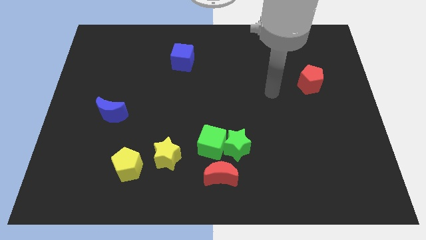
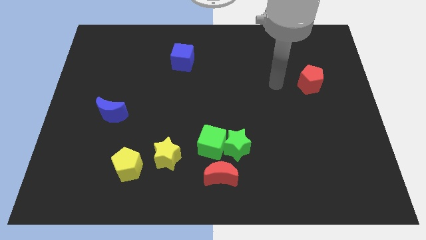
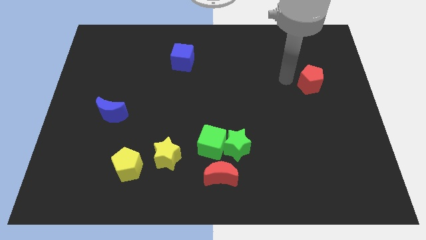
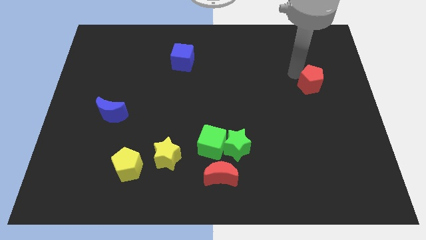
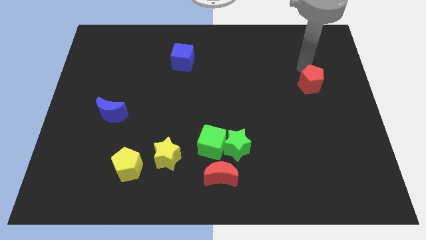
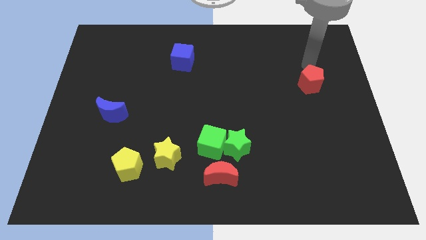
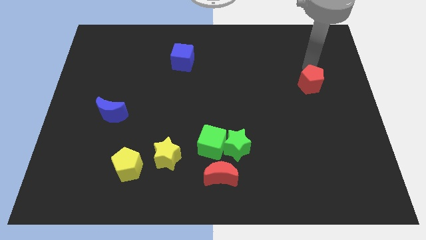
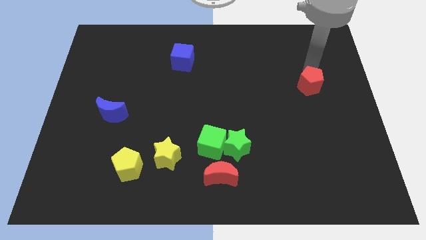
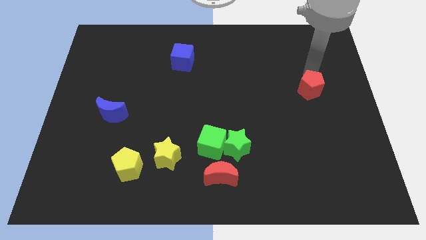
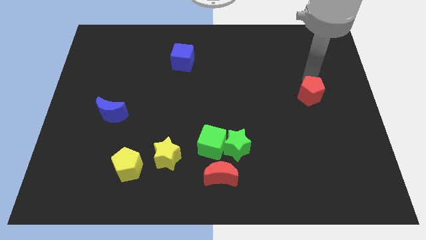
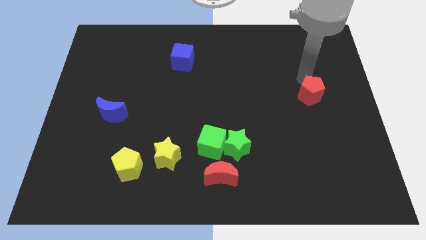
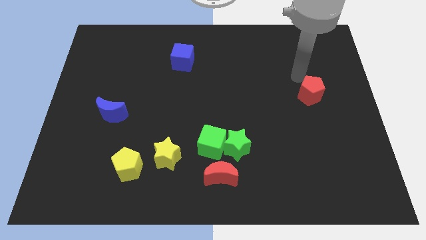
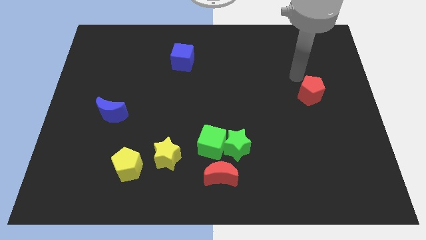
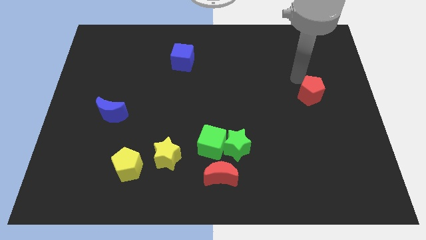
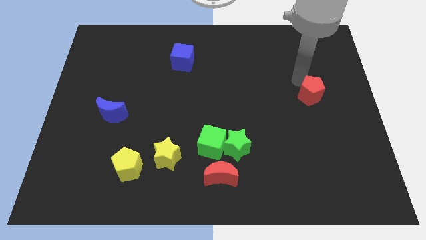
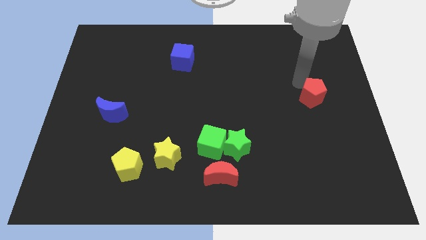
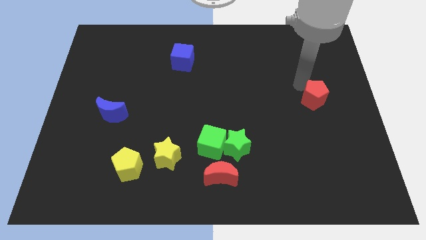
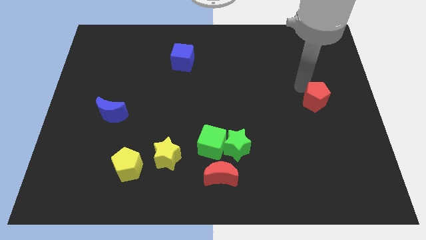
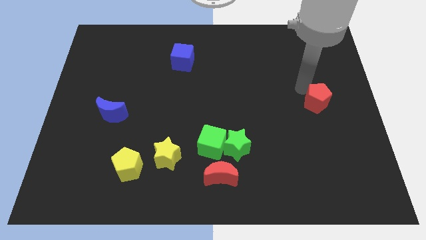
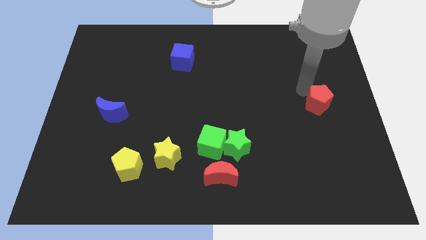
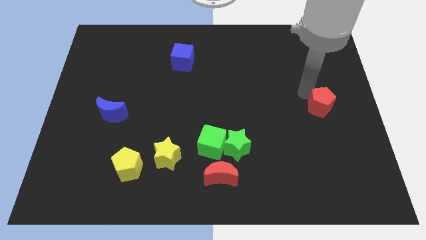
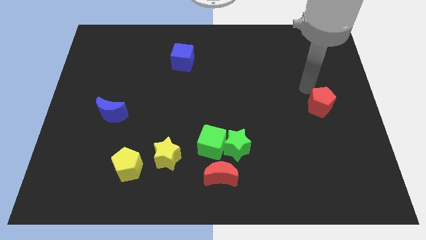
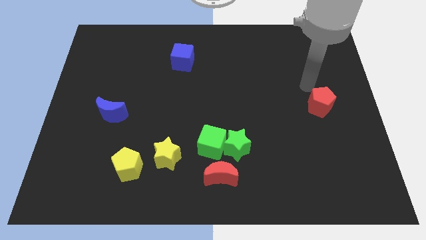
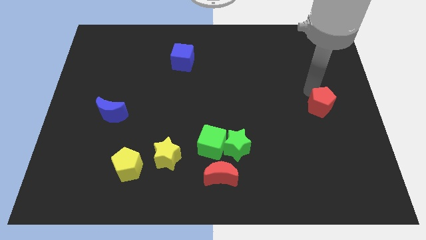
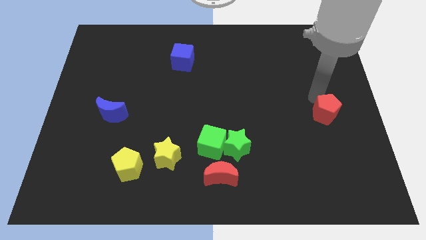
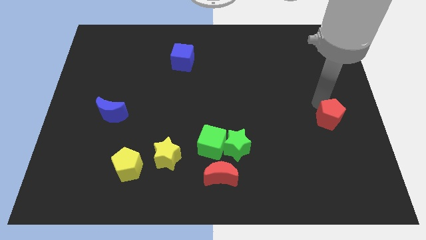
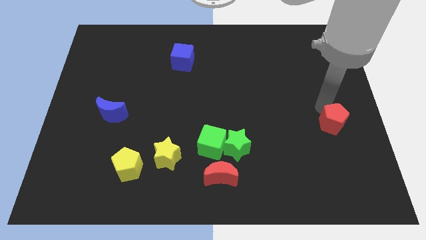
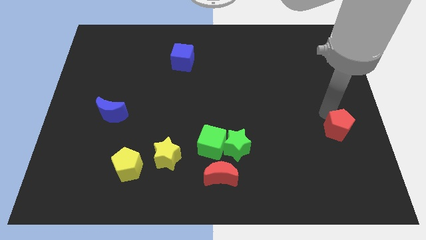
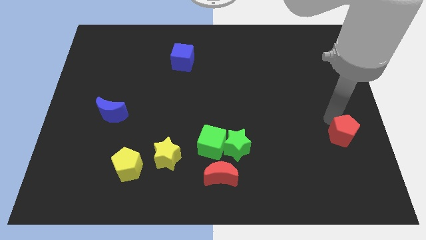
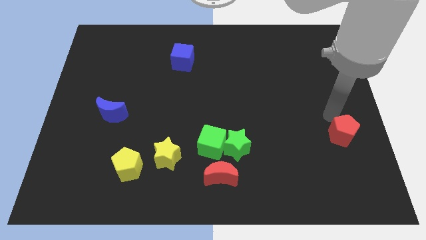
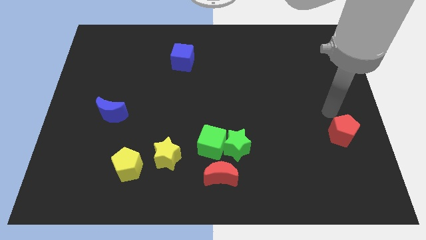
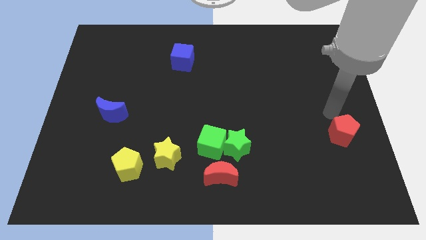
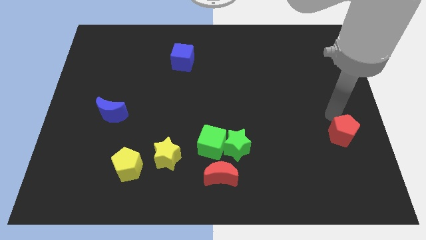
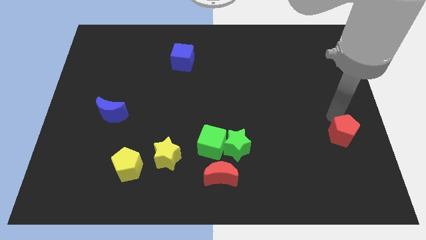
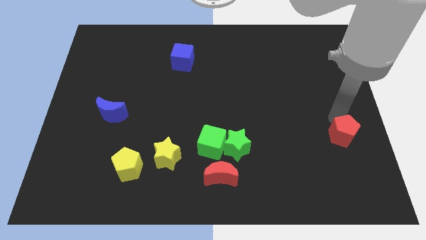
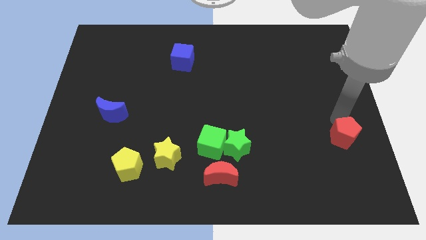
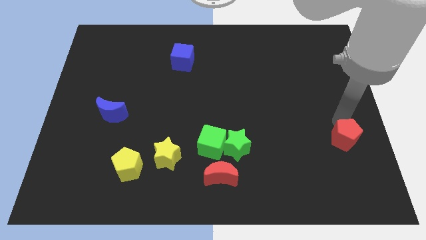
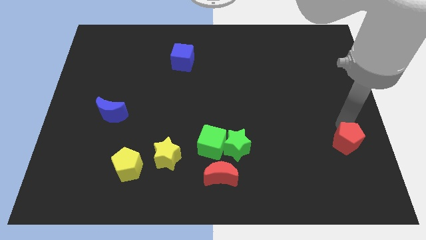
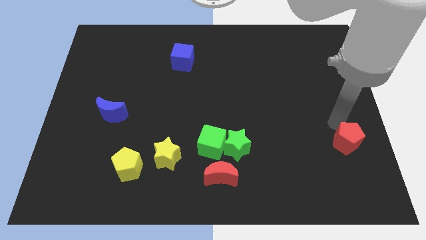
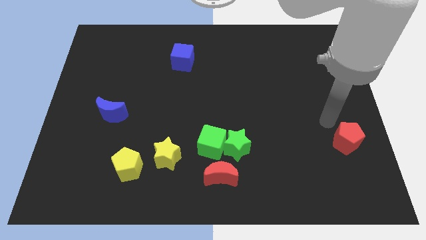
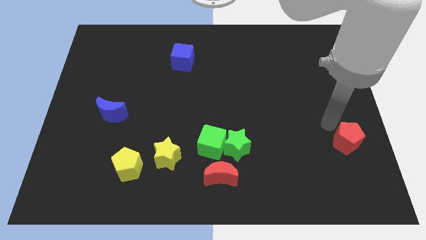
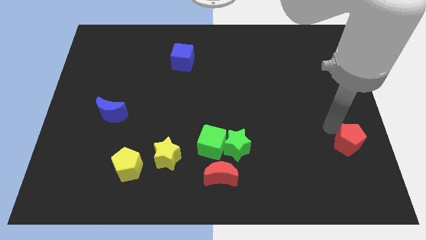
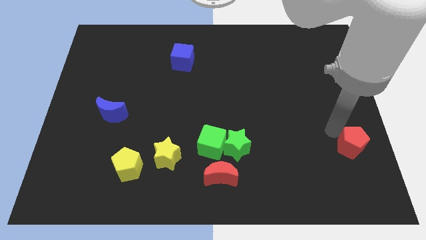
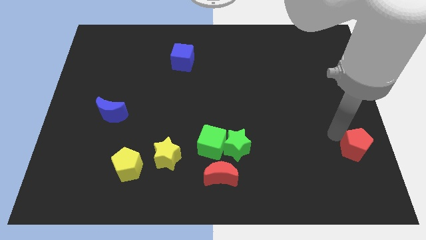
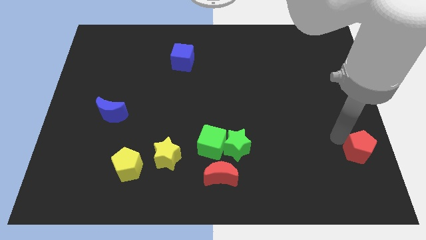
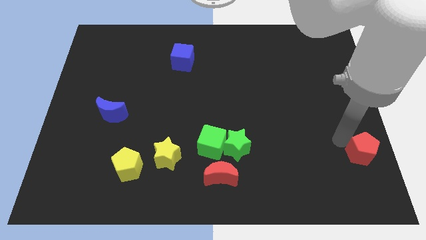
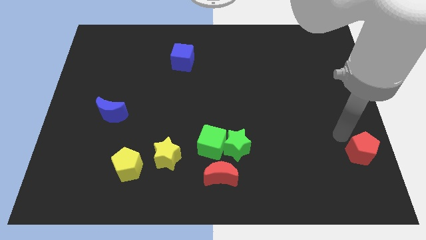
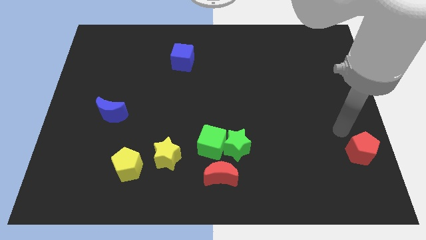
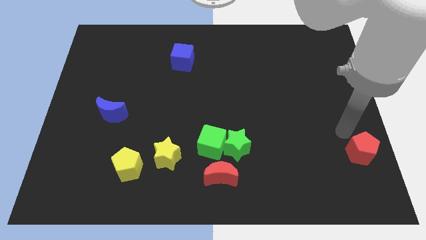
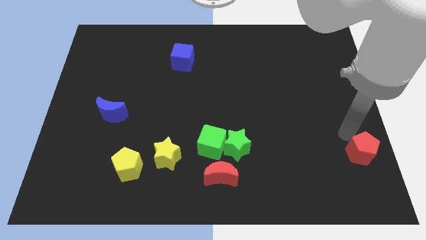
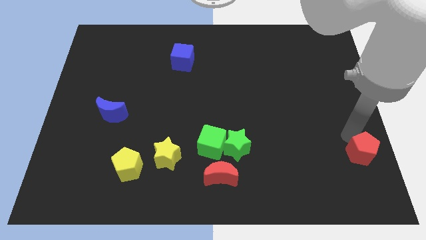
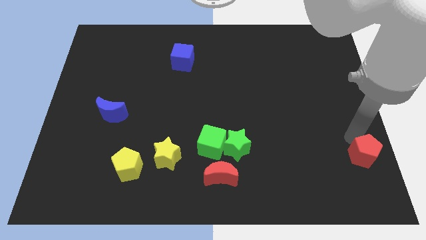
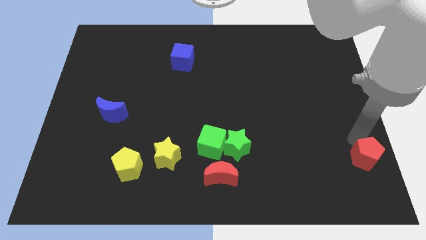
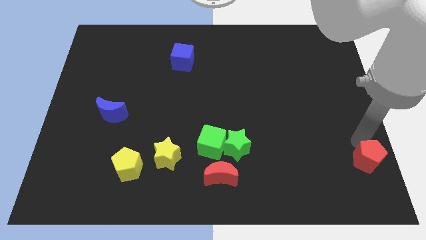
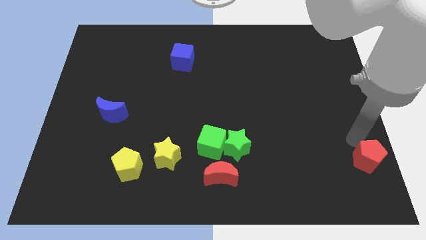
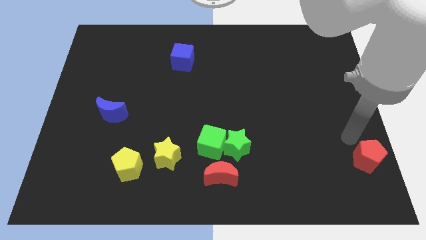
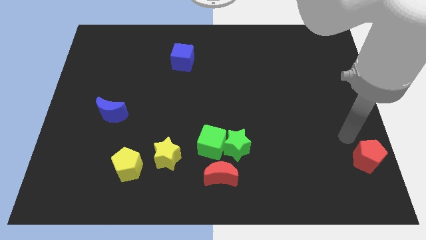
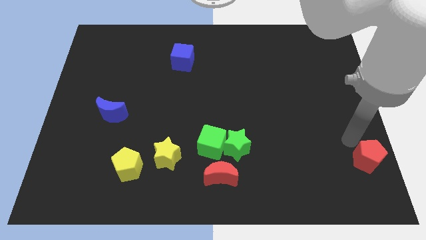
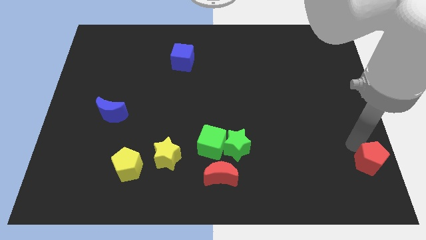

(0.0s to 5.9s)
slide the red pentagon to the bottom right
